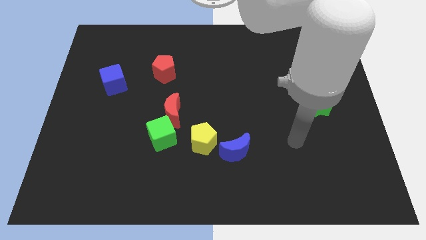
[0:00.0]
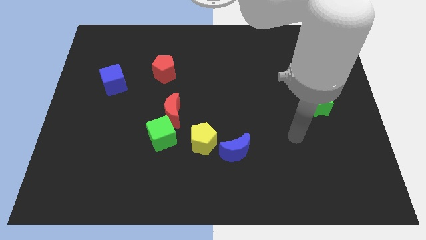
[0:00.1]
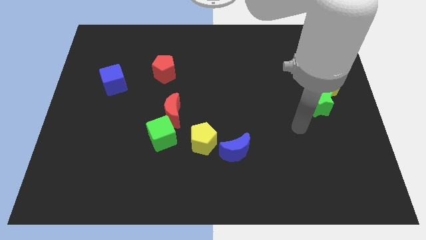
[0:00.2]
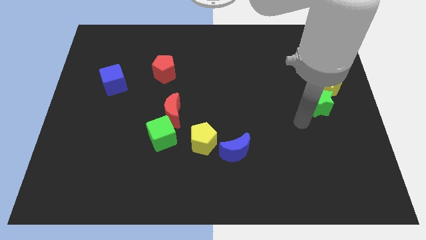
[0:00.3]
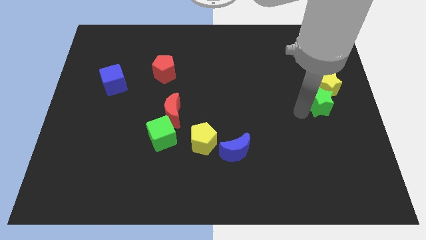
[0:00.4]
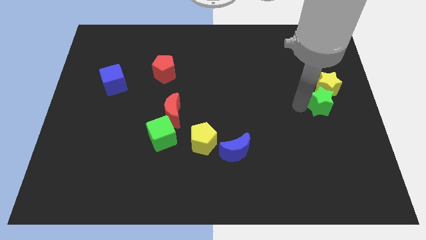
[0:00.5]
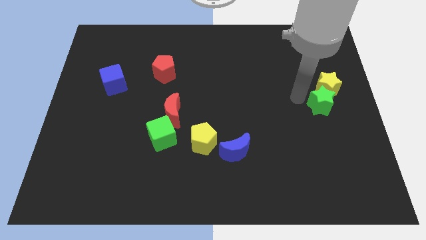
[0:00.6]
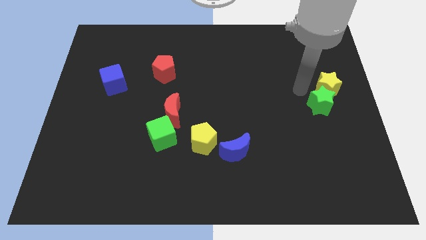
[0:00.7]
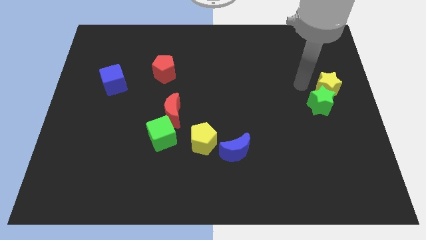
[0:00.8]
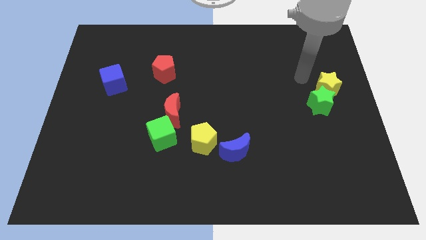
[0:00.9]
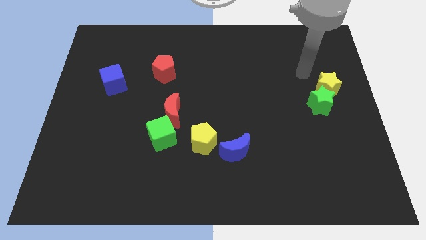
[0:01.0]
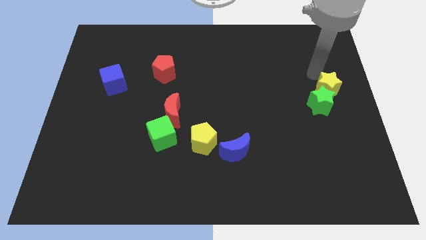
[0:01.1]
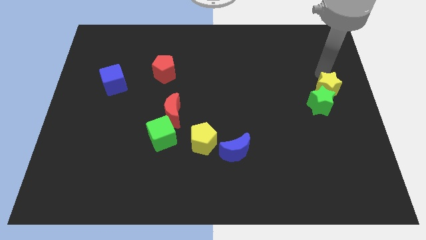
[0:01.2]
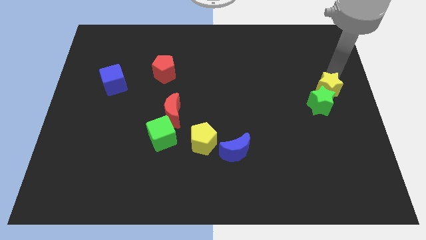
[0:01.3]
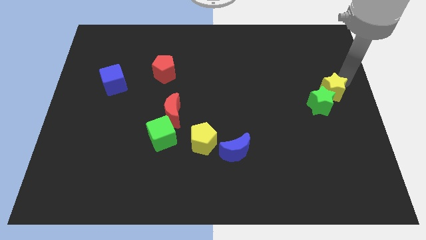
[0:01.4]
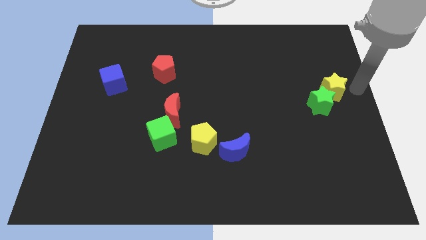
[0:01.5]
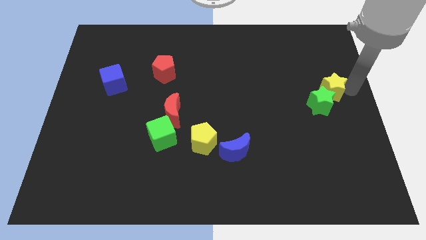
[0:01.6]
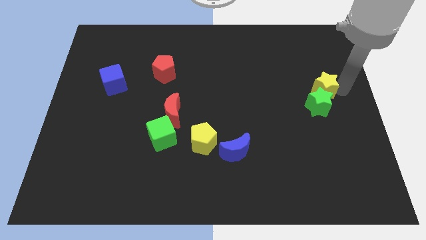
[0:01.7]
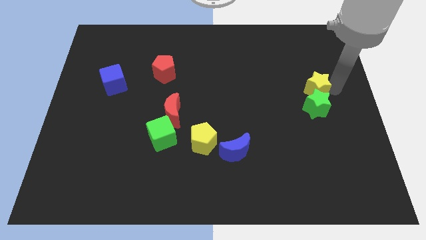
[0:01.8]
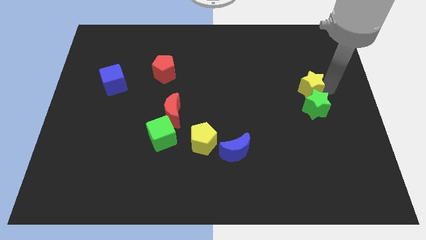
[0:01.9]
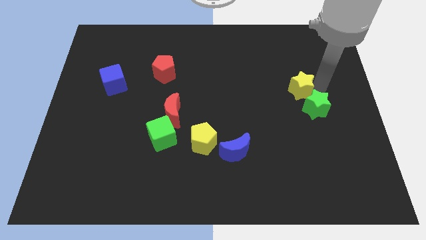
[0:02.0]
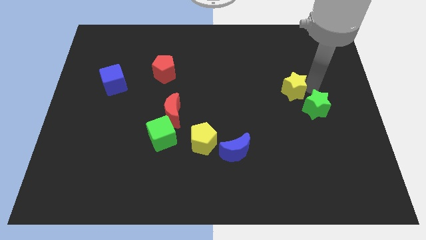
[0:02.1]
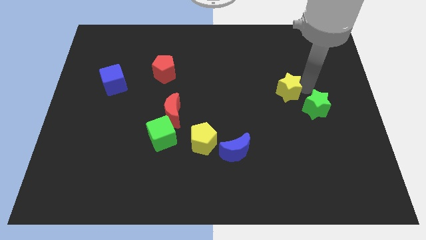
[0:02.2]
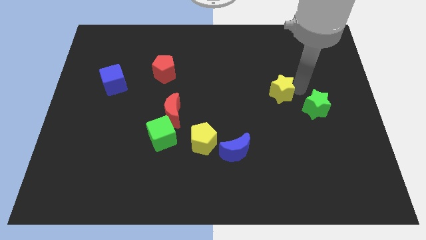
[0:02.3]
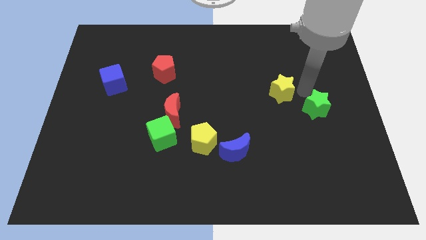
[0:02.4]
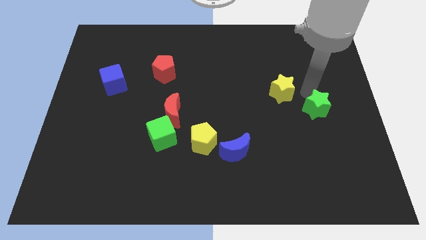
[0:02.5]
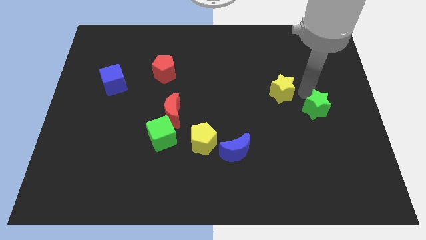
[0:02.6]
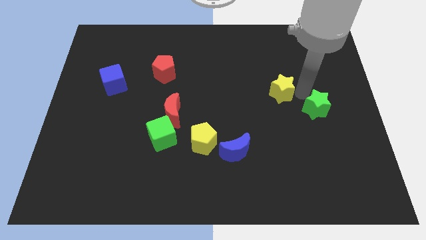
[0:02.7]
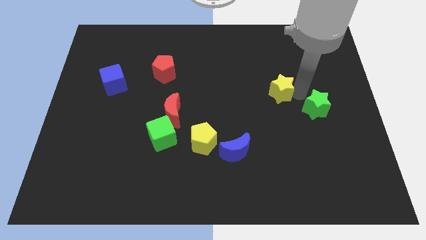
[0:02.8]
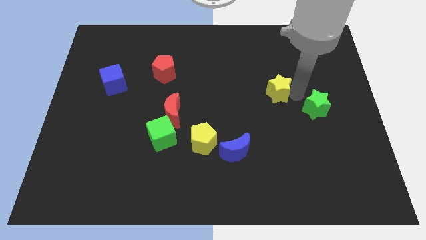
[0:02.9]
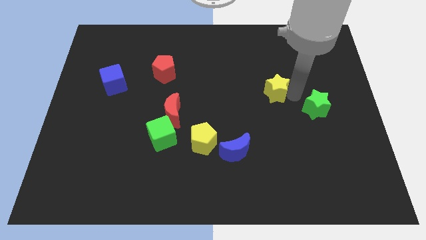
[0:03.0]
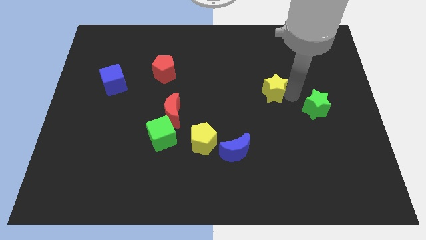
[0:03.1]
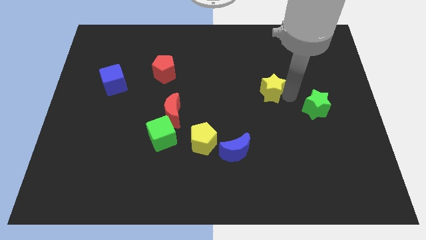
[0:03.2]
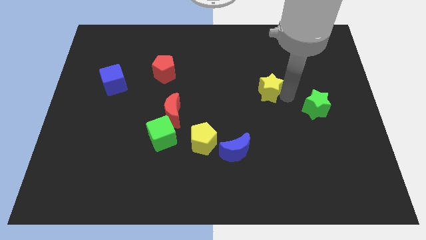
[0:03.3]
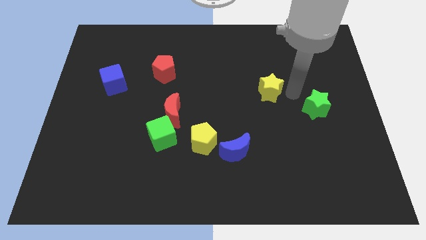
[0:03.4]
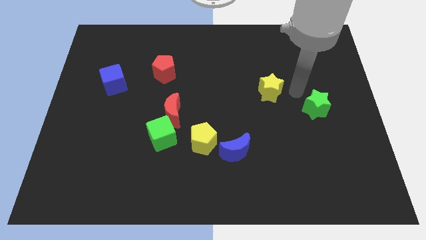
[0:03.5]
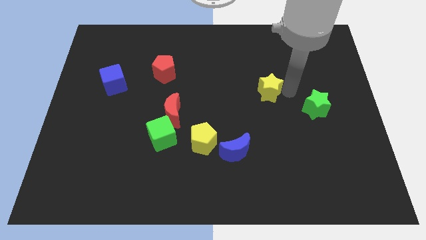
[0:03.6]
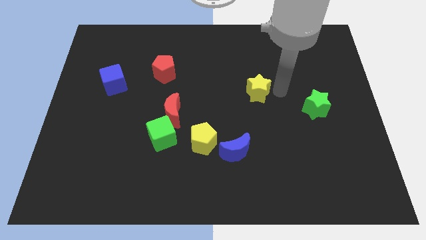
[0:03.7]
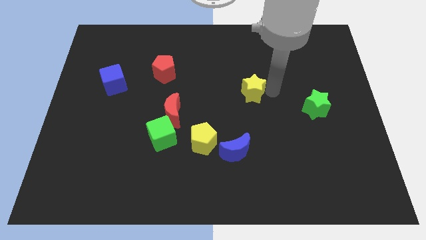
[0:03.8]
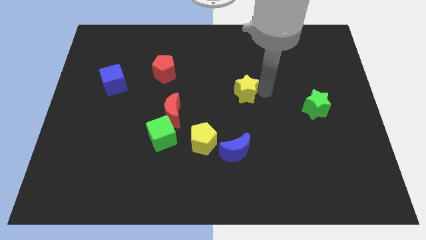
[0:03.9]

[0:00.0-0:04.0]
move the yellow star left

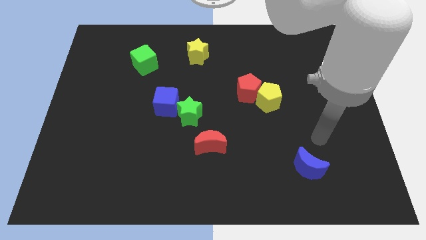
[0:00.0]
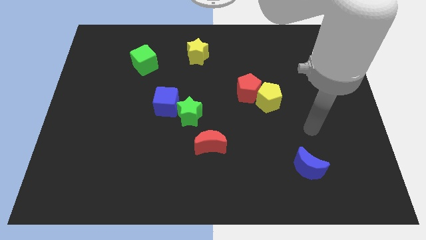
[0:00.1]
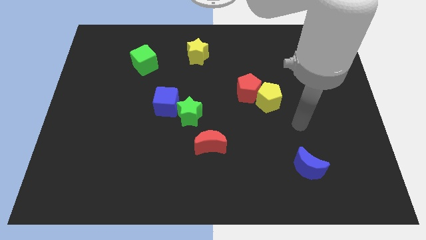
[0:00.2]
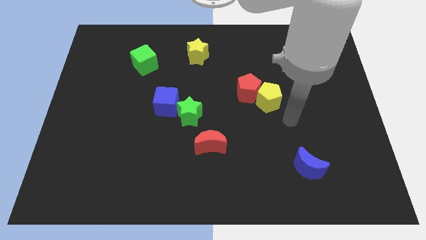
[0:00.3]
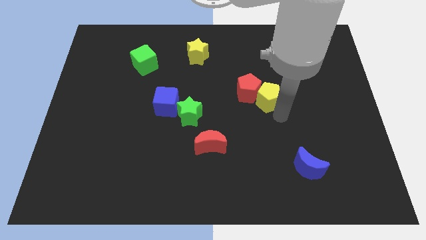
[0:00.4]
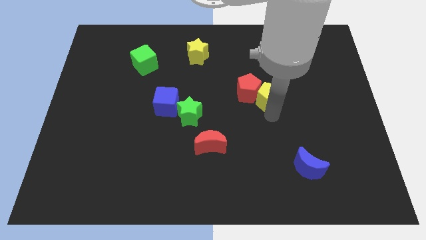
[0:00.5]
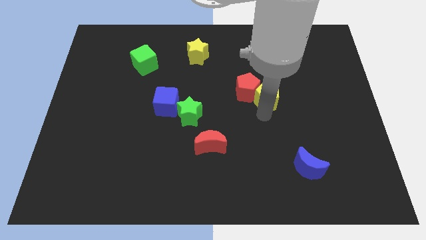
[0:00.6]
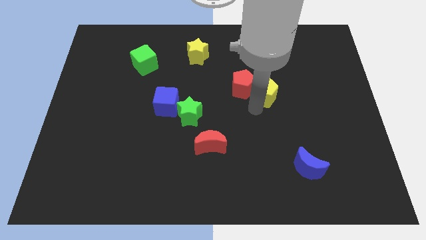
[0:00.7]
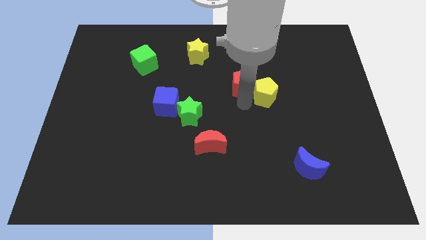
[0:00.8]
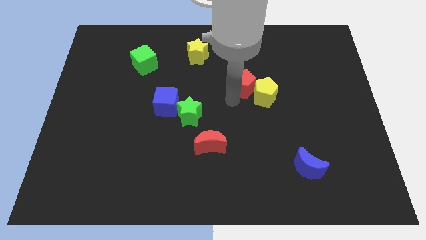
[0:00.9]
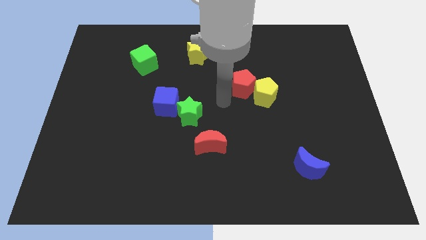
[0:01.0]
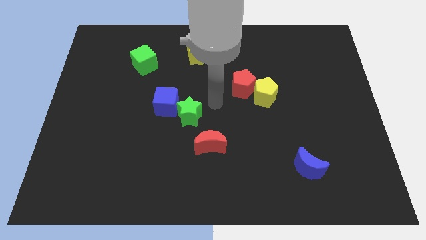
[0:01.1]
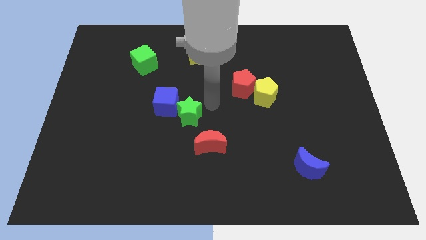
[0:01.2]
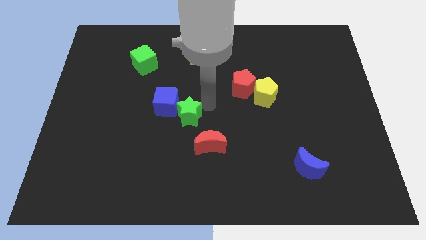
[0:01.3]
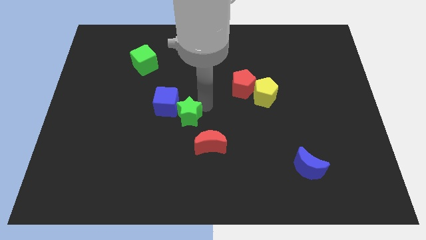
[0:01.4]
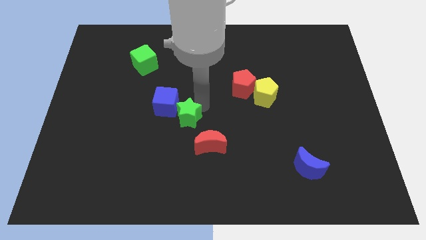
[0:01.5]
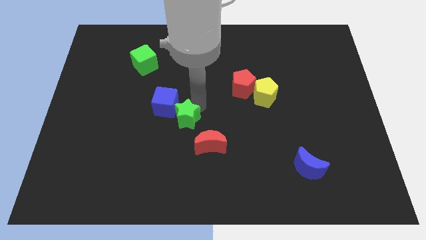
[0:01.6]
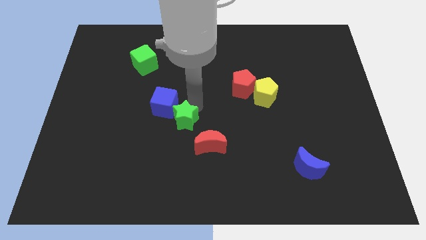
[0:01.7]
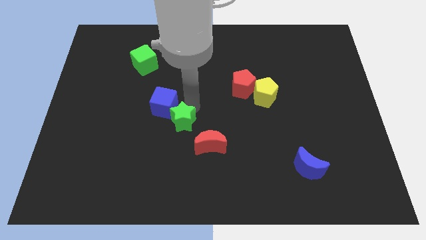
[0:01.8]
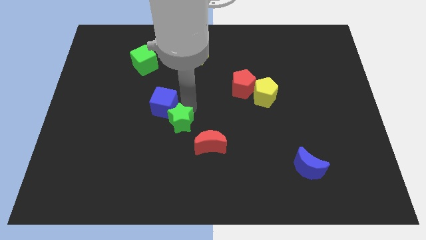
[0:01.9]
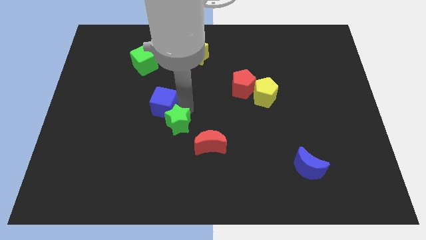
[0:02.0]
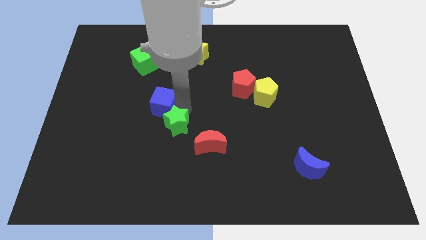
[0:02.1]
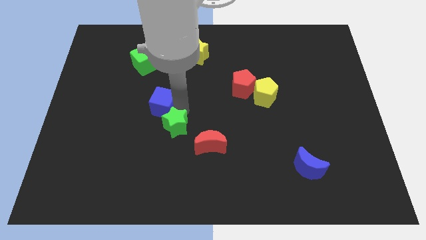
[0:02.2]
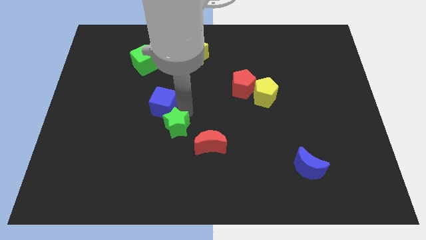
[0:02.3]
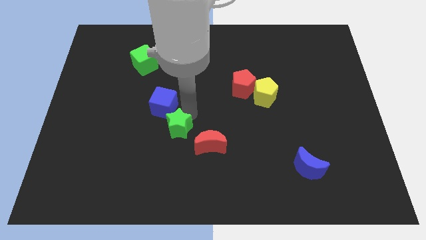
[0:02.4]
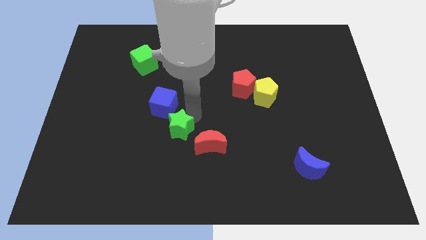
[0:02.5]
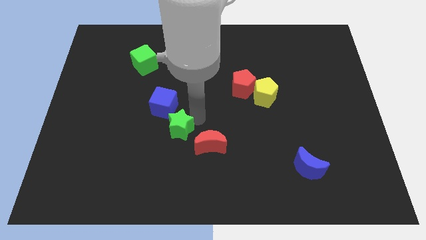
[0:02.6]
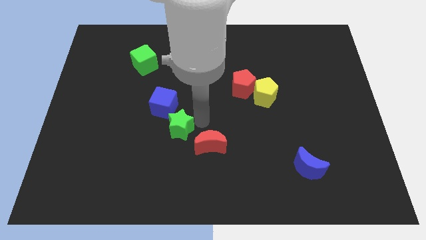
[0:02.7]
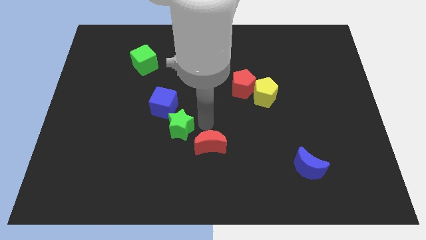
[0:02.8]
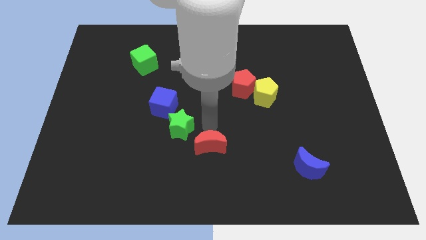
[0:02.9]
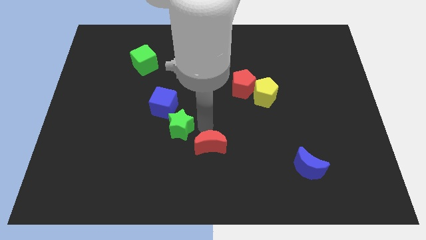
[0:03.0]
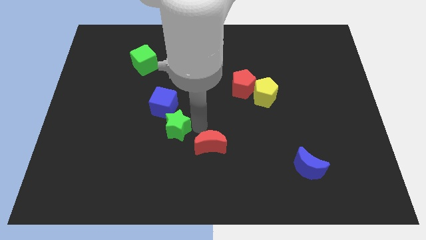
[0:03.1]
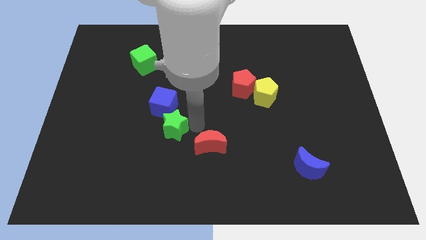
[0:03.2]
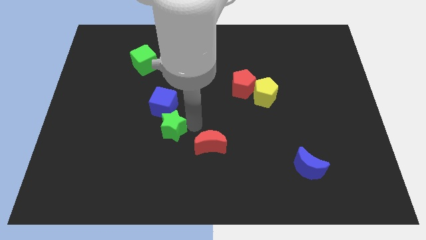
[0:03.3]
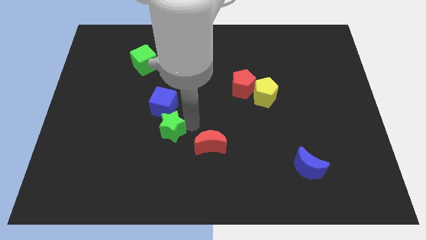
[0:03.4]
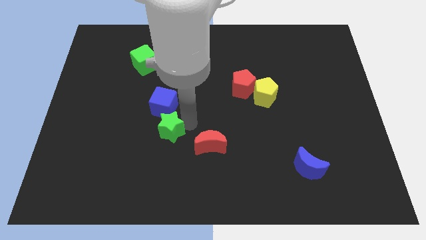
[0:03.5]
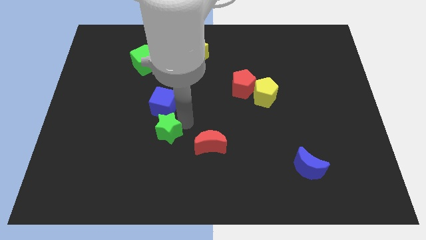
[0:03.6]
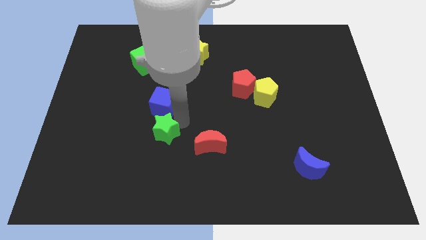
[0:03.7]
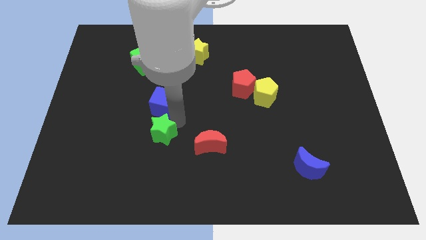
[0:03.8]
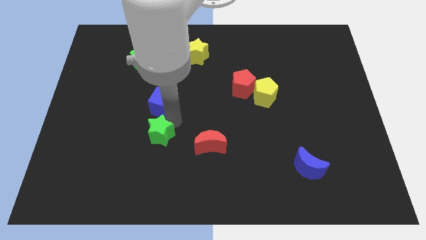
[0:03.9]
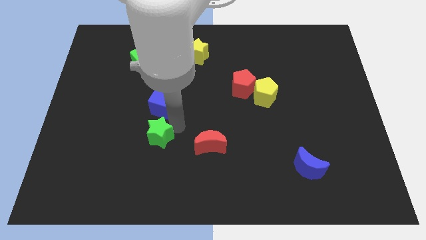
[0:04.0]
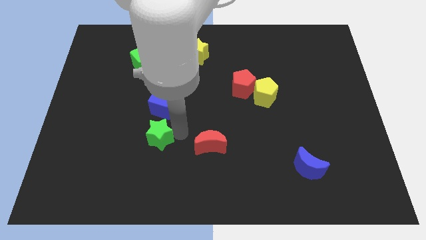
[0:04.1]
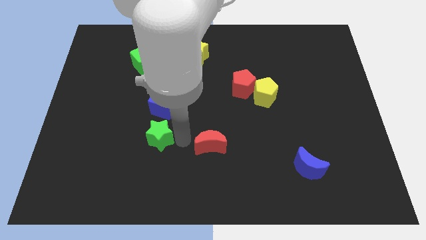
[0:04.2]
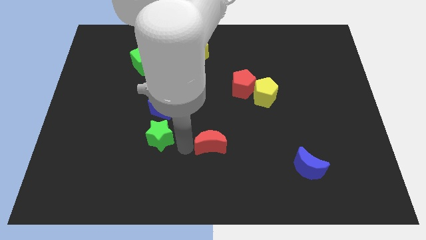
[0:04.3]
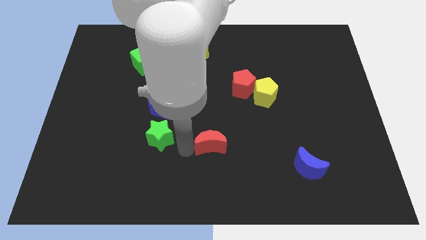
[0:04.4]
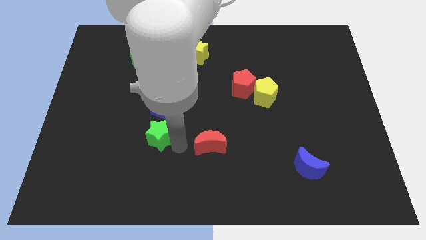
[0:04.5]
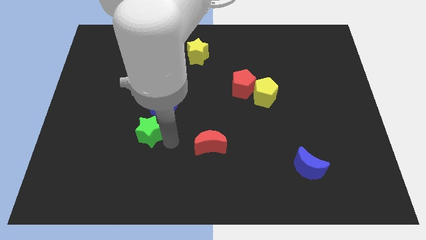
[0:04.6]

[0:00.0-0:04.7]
slide the green star a bit to the left
